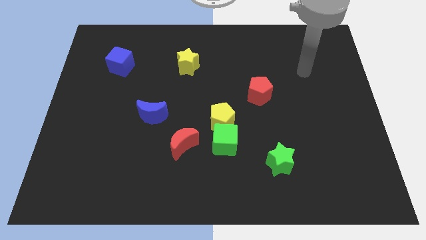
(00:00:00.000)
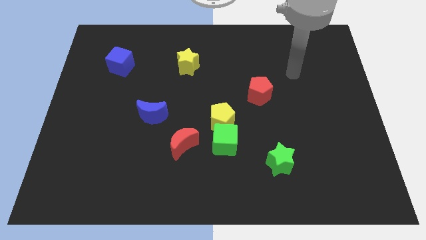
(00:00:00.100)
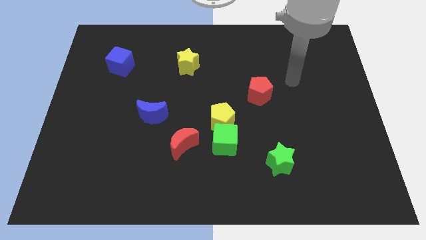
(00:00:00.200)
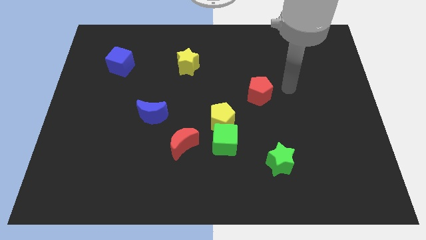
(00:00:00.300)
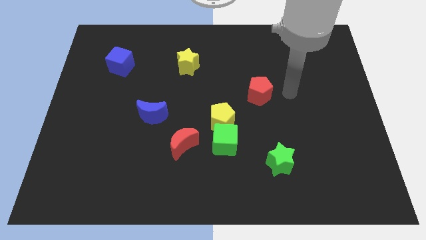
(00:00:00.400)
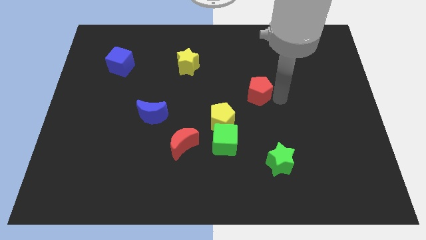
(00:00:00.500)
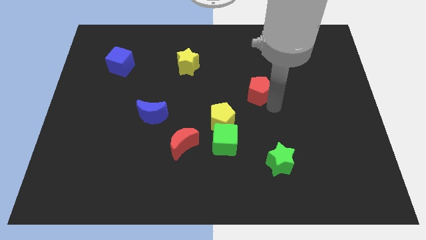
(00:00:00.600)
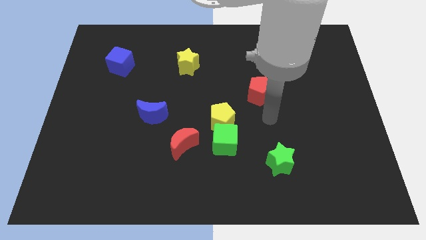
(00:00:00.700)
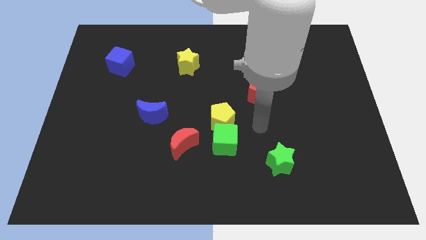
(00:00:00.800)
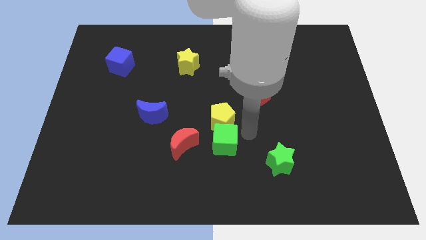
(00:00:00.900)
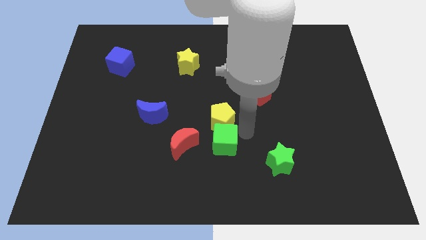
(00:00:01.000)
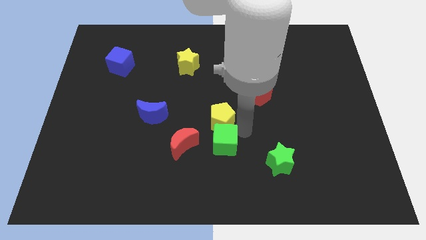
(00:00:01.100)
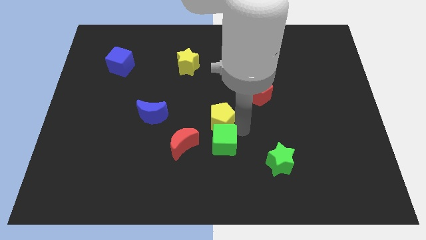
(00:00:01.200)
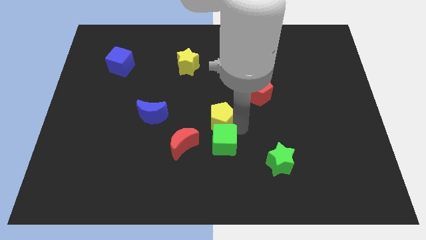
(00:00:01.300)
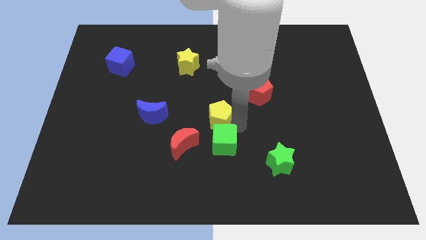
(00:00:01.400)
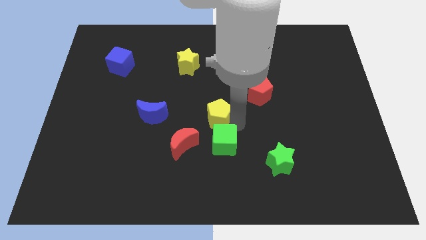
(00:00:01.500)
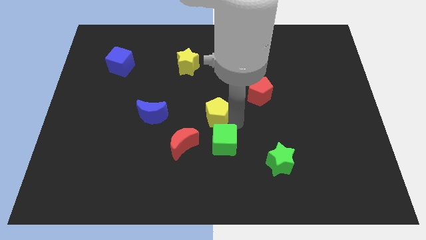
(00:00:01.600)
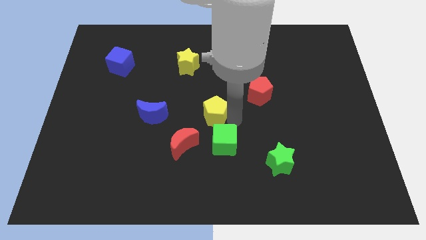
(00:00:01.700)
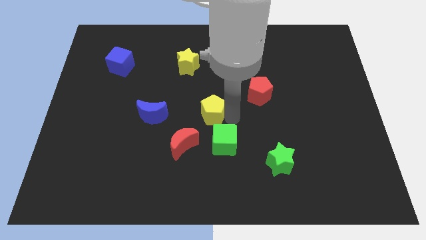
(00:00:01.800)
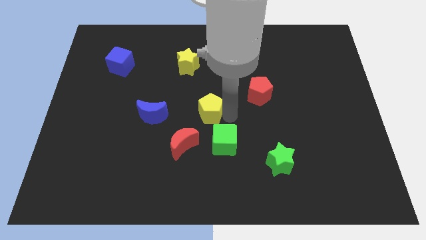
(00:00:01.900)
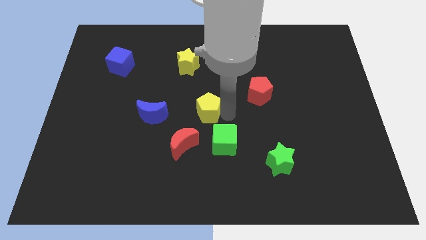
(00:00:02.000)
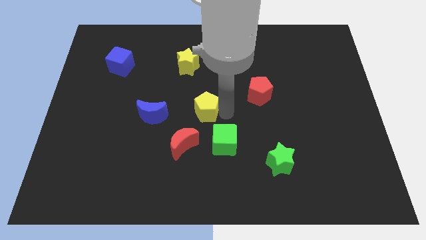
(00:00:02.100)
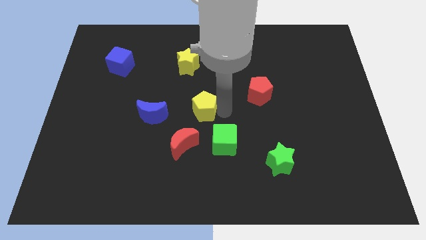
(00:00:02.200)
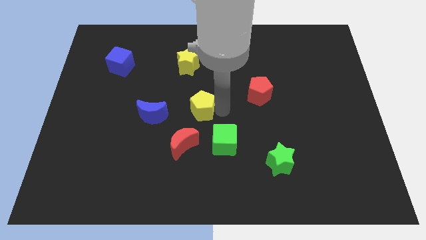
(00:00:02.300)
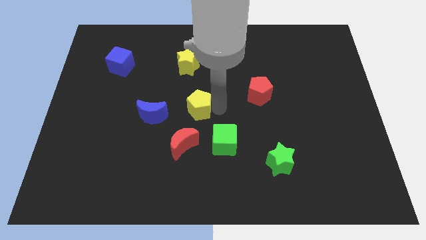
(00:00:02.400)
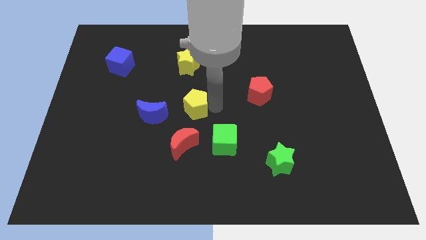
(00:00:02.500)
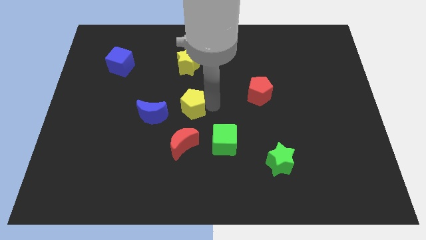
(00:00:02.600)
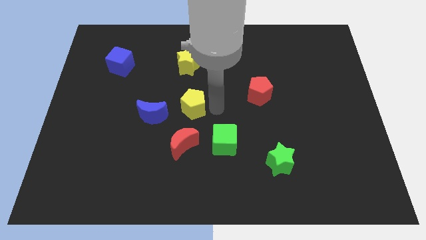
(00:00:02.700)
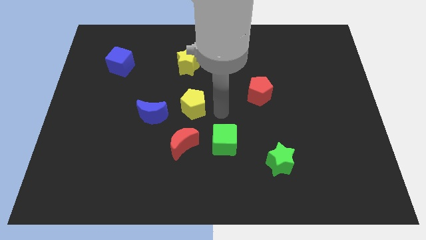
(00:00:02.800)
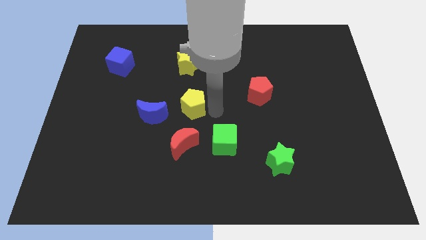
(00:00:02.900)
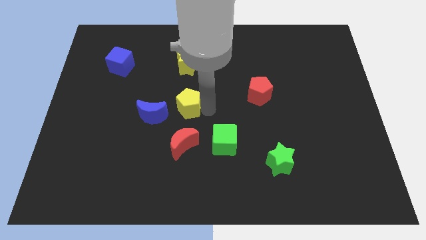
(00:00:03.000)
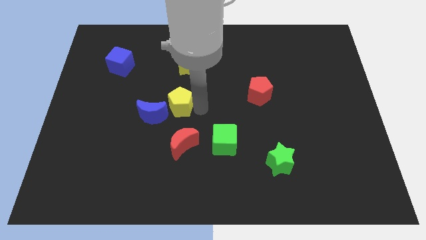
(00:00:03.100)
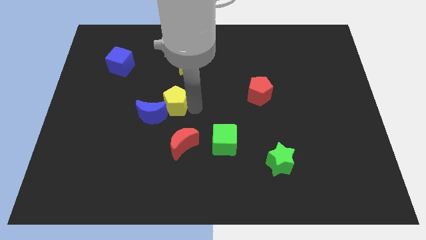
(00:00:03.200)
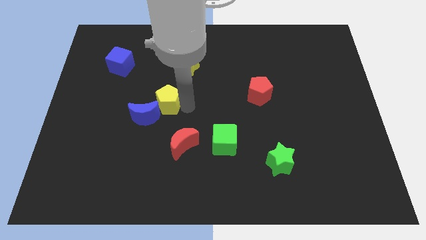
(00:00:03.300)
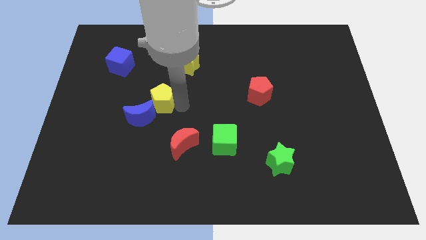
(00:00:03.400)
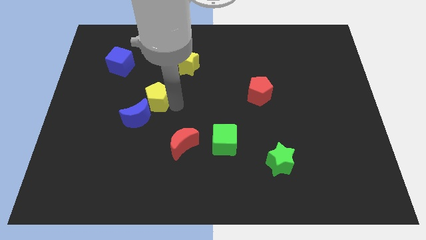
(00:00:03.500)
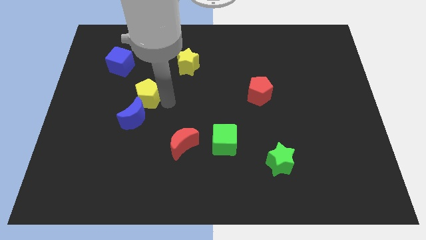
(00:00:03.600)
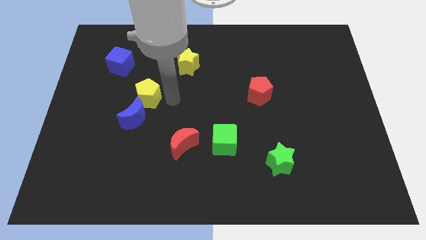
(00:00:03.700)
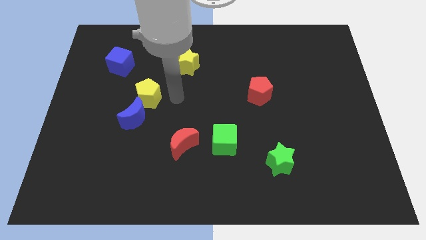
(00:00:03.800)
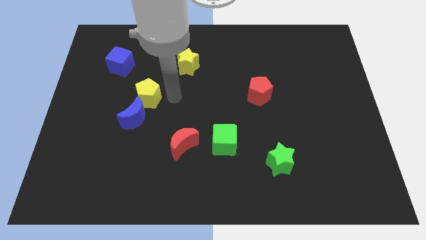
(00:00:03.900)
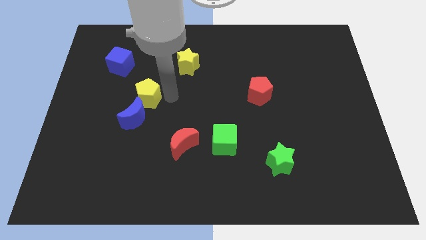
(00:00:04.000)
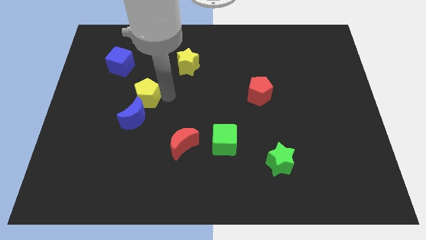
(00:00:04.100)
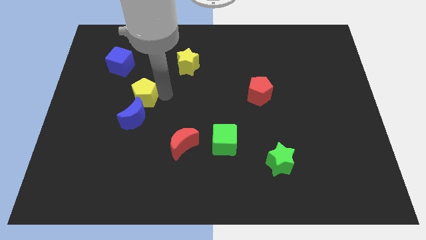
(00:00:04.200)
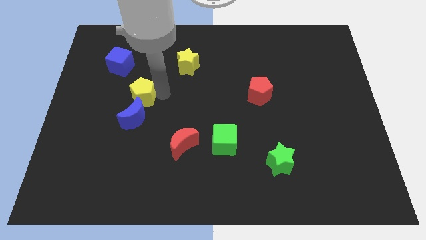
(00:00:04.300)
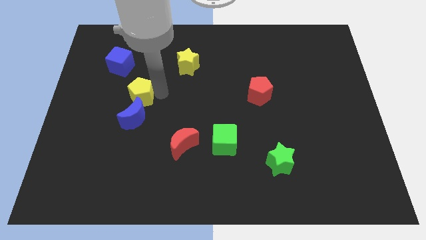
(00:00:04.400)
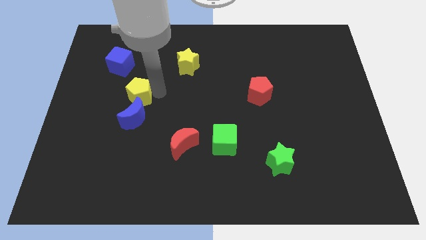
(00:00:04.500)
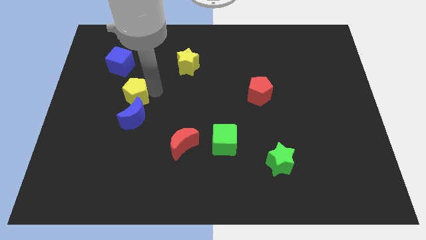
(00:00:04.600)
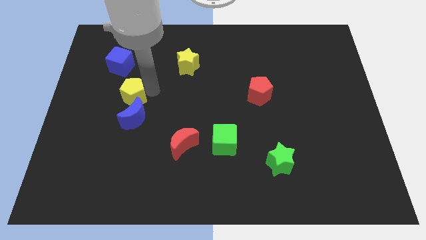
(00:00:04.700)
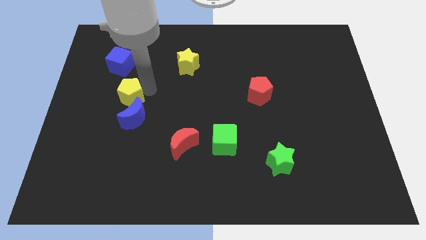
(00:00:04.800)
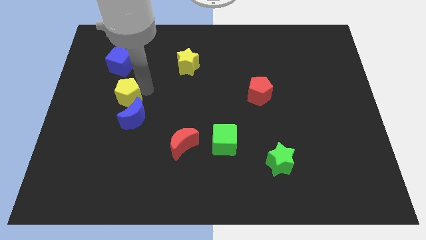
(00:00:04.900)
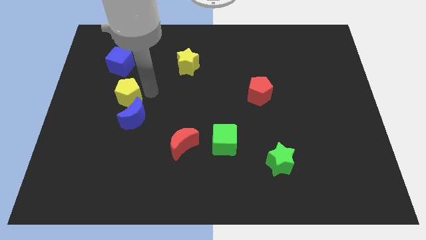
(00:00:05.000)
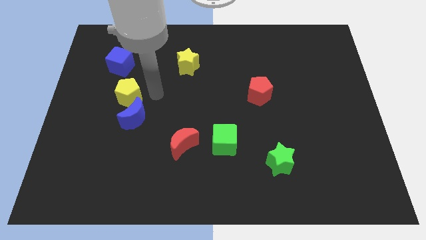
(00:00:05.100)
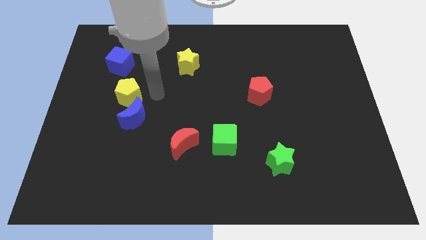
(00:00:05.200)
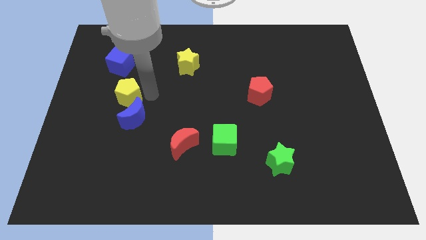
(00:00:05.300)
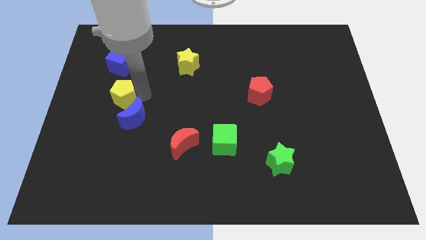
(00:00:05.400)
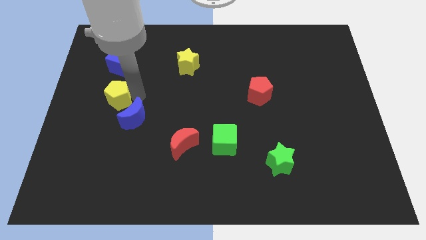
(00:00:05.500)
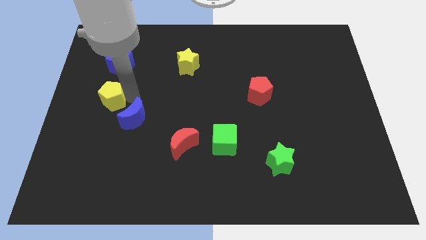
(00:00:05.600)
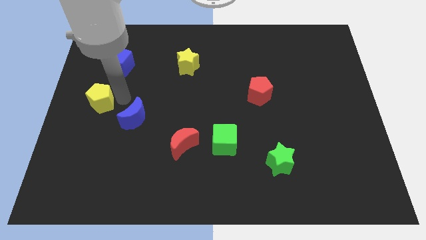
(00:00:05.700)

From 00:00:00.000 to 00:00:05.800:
push the yellow pentagon to the left side of the board

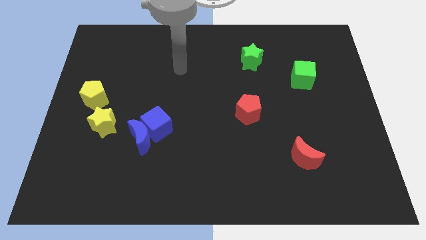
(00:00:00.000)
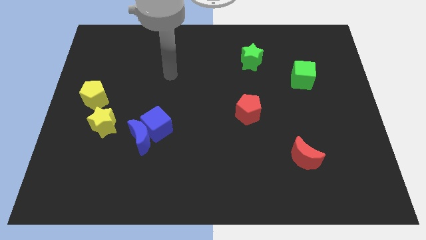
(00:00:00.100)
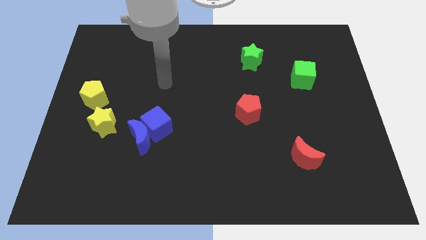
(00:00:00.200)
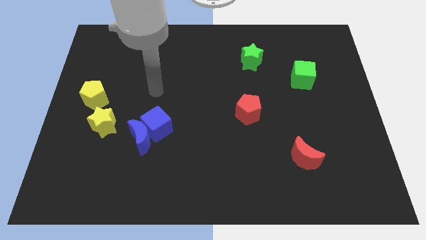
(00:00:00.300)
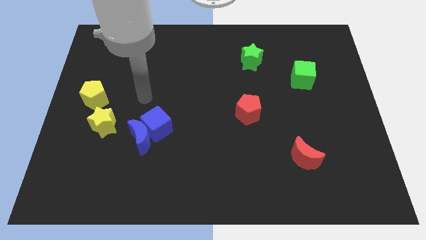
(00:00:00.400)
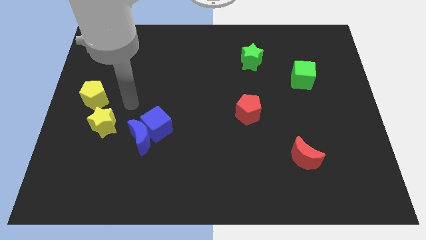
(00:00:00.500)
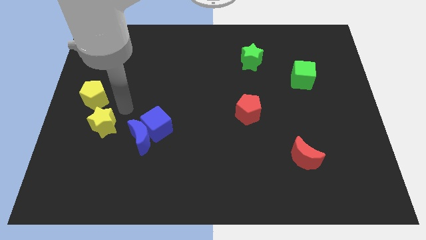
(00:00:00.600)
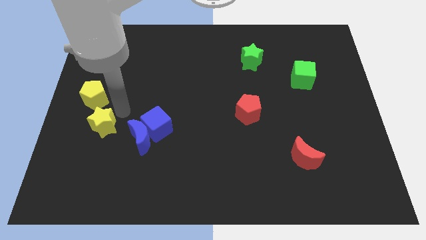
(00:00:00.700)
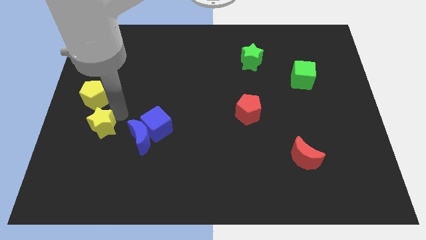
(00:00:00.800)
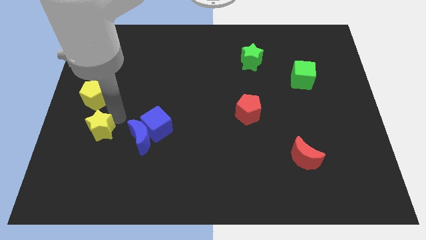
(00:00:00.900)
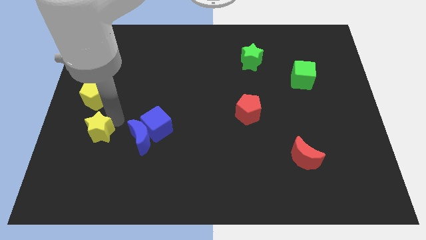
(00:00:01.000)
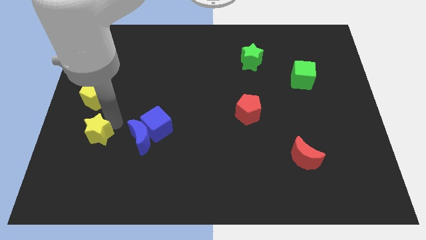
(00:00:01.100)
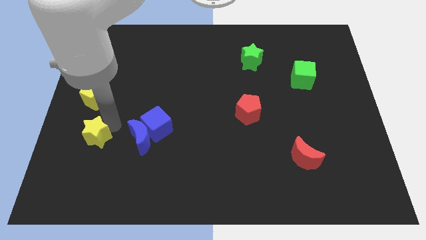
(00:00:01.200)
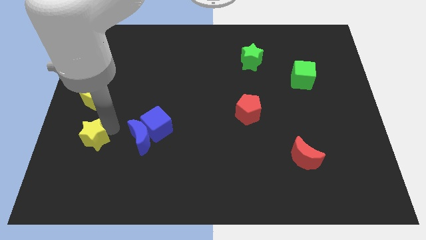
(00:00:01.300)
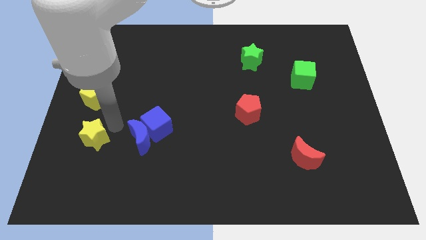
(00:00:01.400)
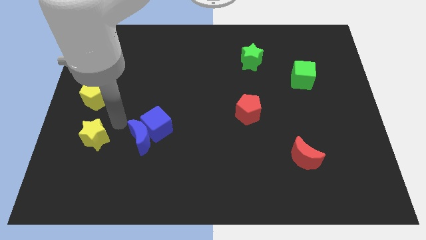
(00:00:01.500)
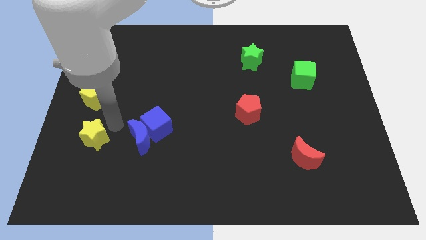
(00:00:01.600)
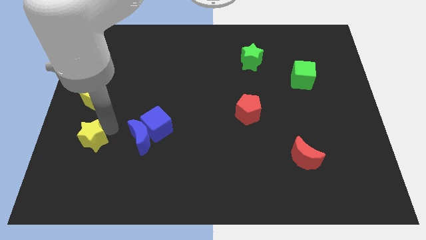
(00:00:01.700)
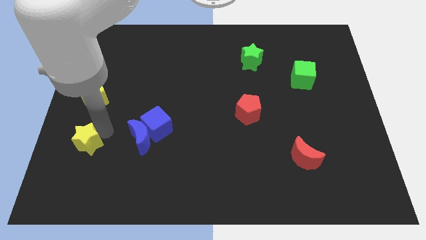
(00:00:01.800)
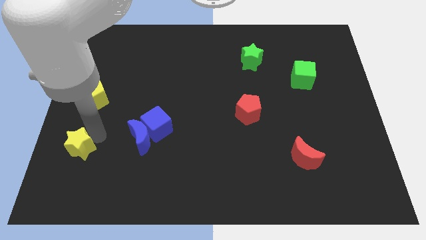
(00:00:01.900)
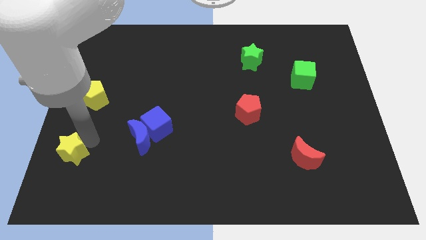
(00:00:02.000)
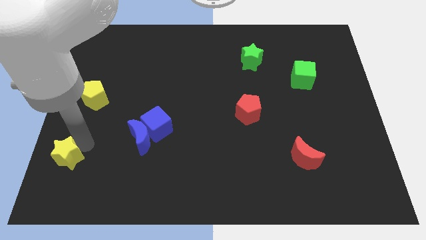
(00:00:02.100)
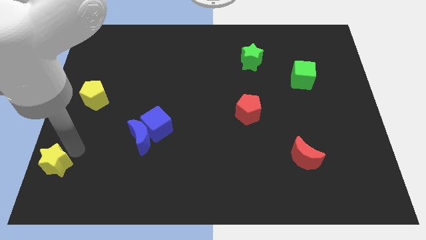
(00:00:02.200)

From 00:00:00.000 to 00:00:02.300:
put the yellow star to the bottom left of the board
